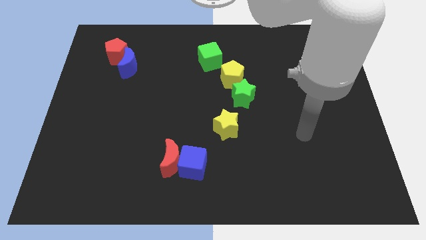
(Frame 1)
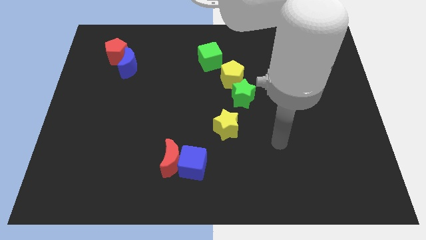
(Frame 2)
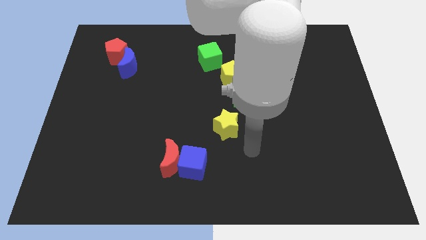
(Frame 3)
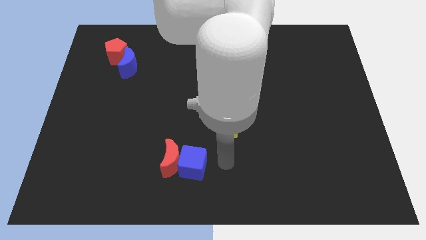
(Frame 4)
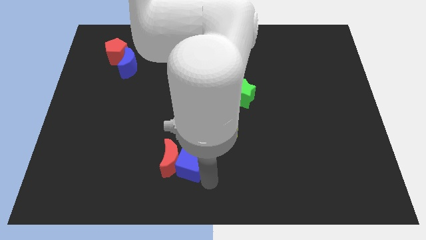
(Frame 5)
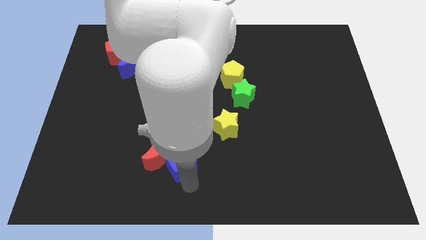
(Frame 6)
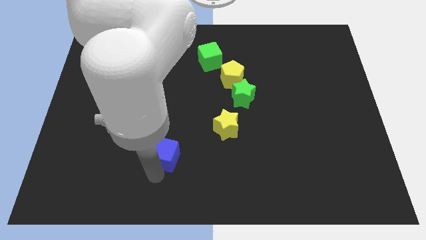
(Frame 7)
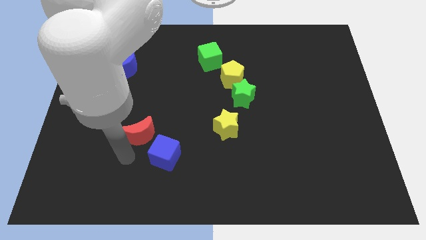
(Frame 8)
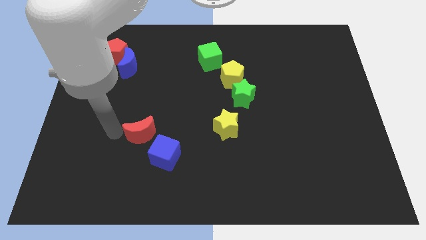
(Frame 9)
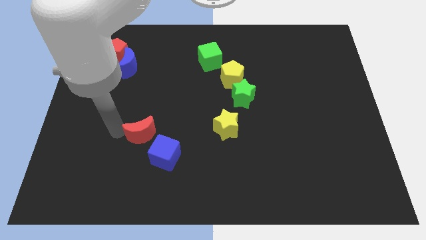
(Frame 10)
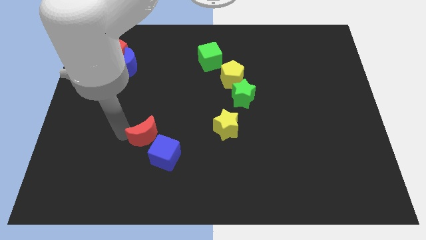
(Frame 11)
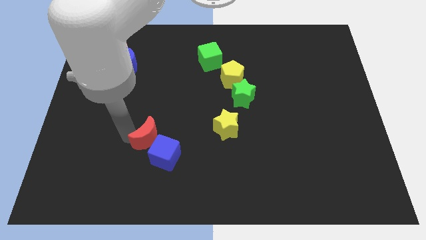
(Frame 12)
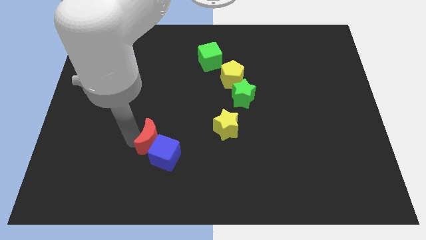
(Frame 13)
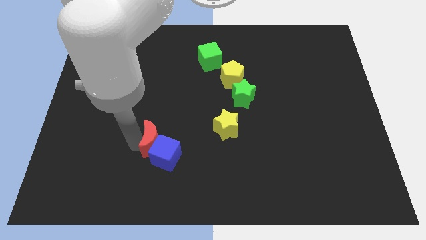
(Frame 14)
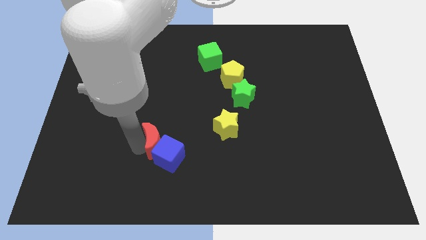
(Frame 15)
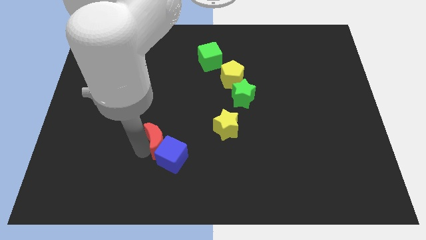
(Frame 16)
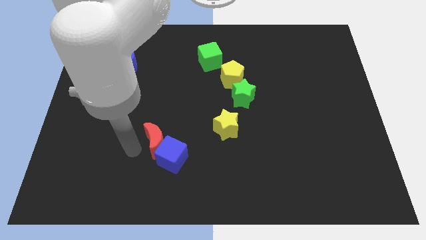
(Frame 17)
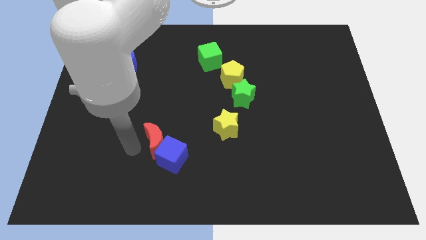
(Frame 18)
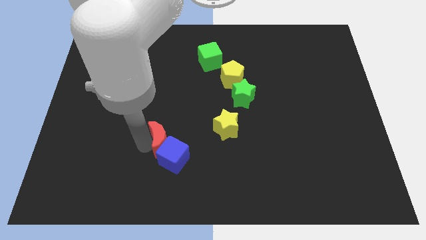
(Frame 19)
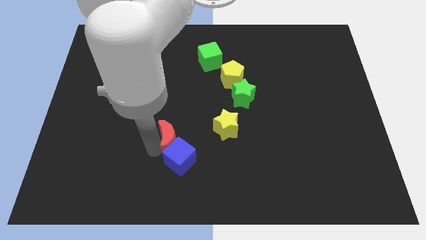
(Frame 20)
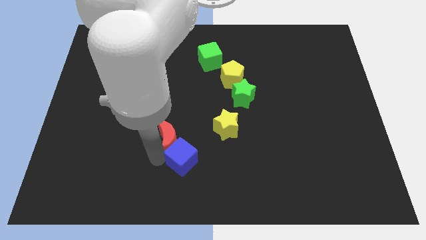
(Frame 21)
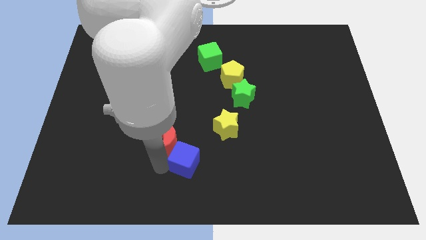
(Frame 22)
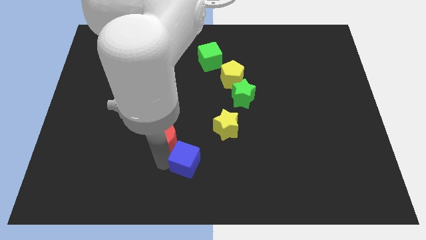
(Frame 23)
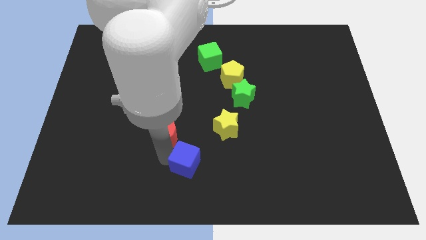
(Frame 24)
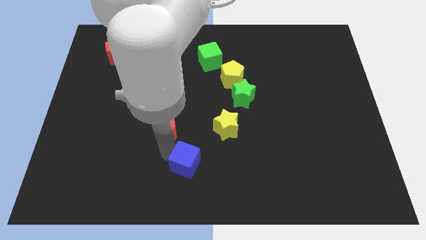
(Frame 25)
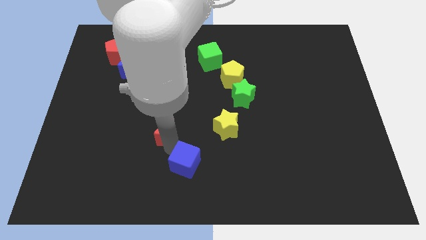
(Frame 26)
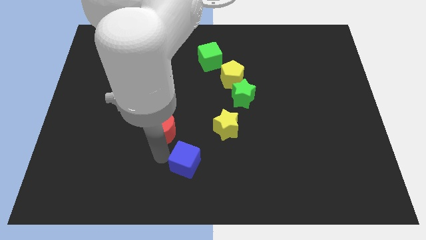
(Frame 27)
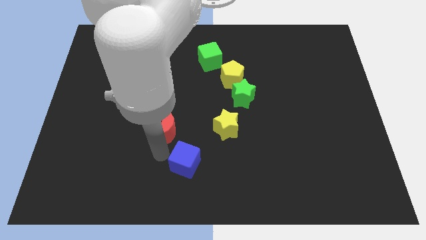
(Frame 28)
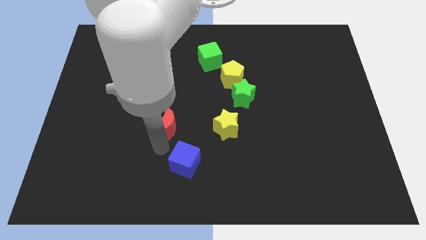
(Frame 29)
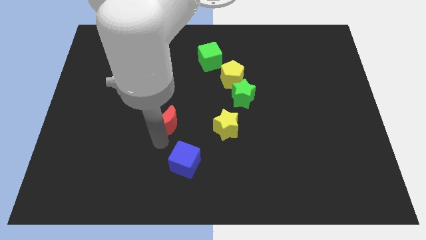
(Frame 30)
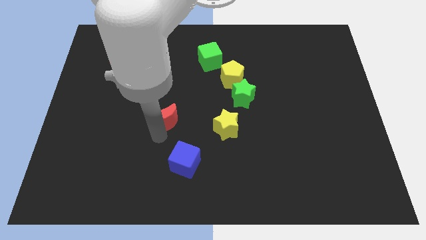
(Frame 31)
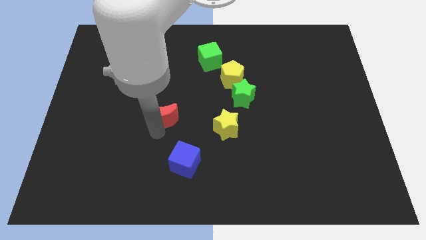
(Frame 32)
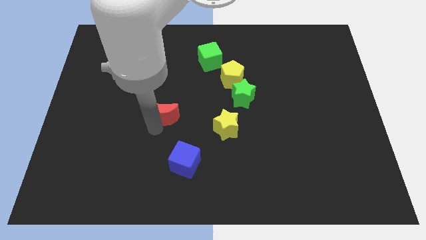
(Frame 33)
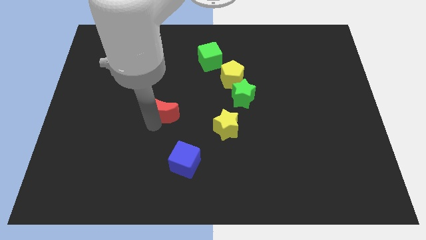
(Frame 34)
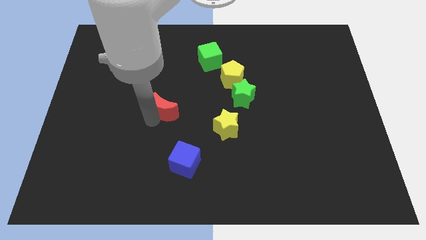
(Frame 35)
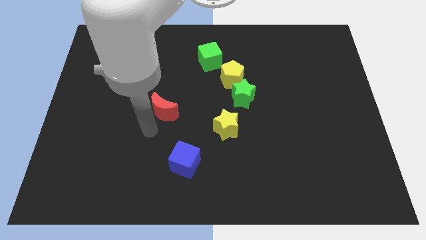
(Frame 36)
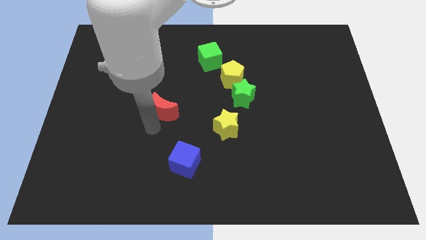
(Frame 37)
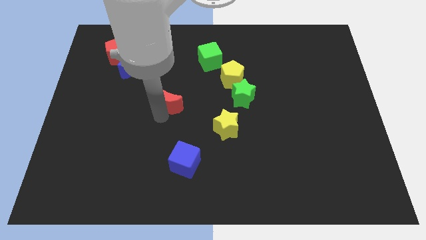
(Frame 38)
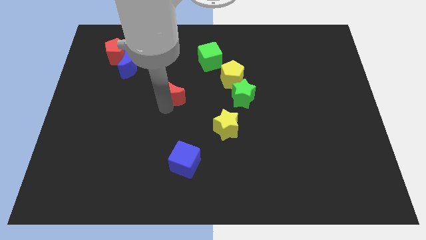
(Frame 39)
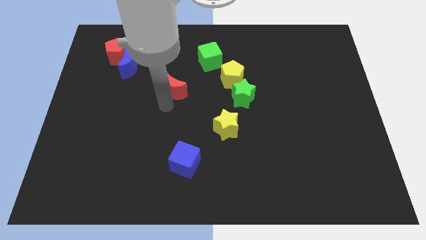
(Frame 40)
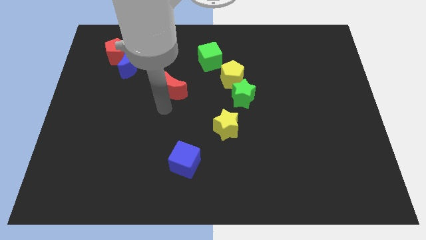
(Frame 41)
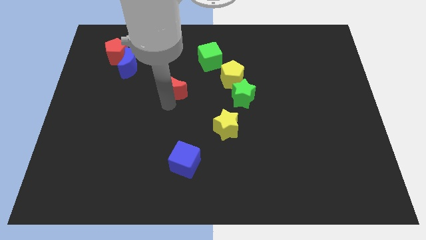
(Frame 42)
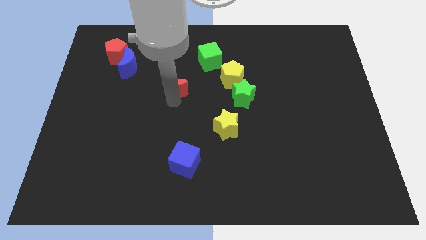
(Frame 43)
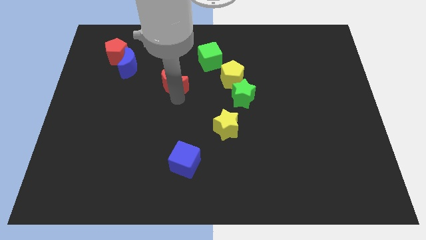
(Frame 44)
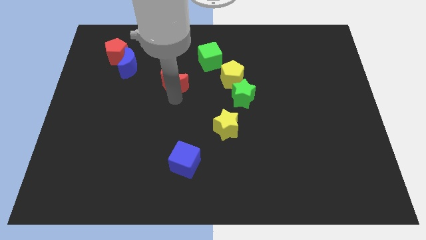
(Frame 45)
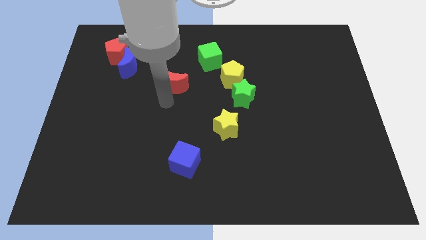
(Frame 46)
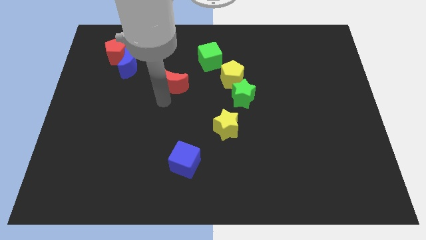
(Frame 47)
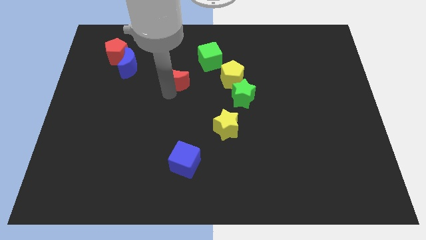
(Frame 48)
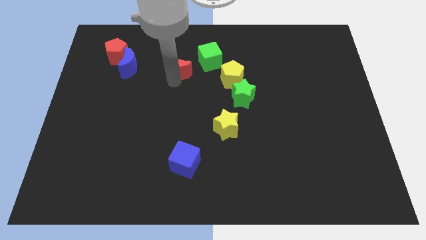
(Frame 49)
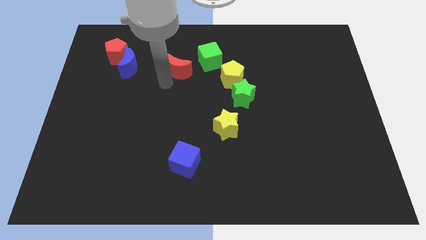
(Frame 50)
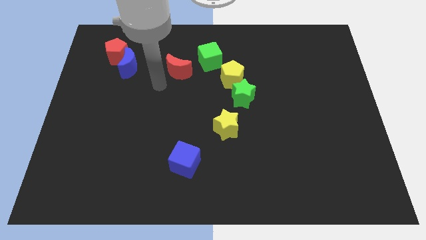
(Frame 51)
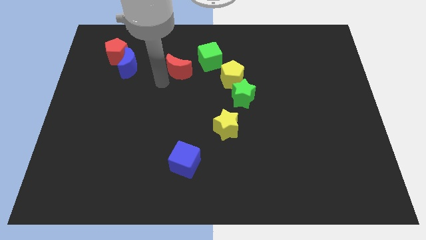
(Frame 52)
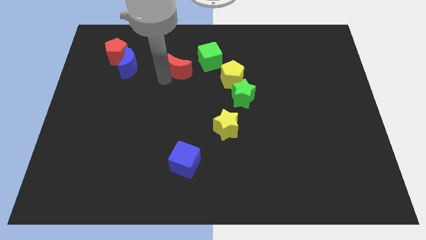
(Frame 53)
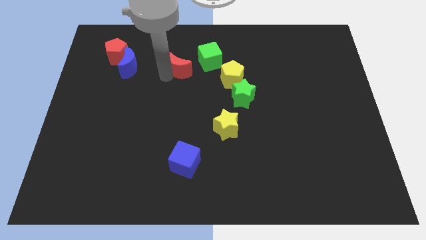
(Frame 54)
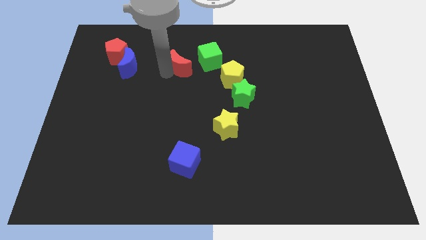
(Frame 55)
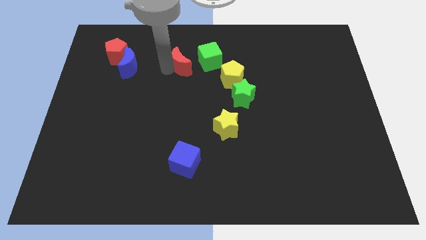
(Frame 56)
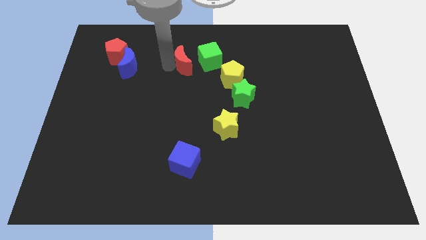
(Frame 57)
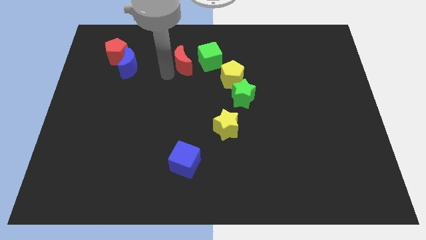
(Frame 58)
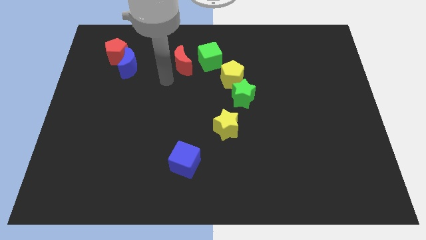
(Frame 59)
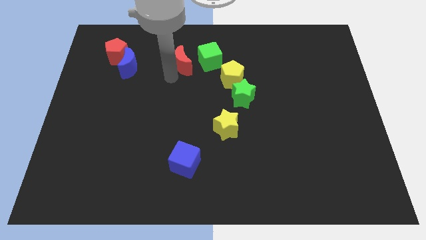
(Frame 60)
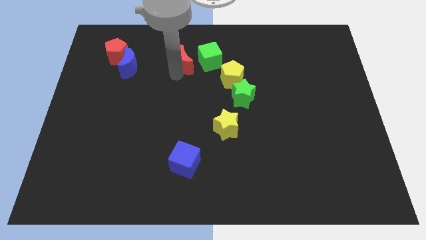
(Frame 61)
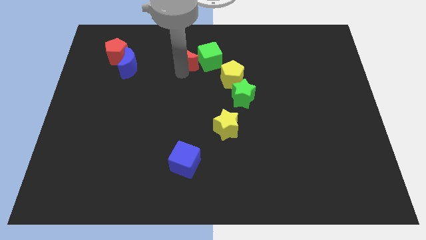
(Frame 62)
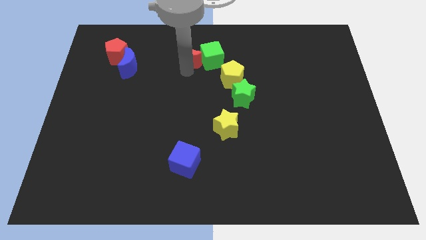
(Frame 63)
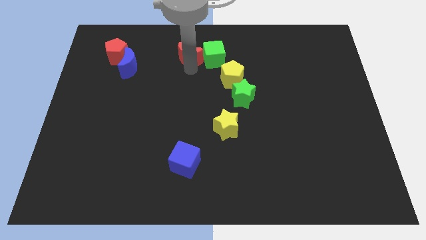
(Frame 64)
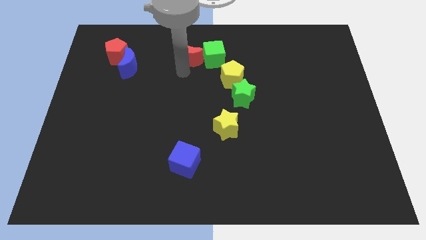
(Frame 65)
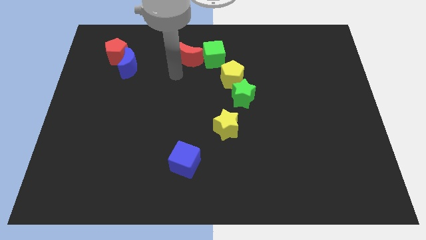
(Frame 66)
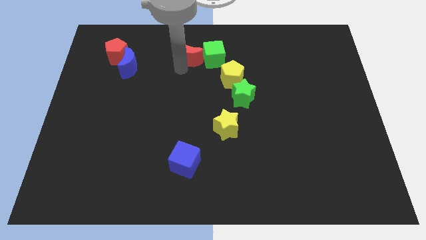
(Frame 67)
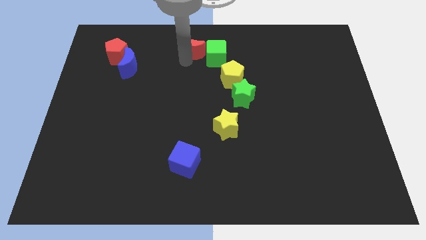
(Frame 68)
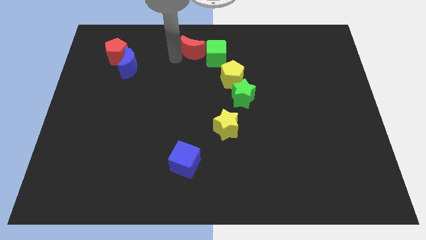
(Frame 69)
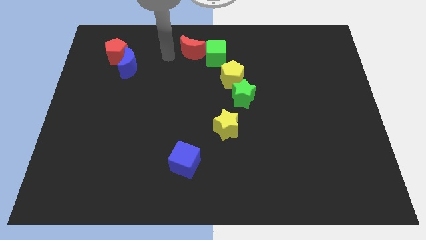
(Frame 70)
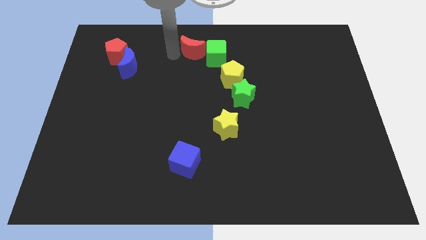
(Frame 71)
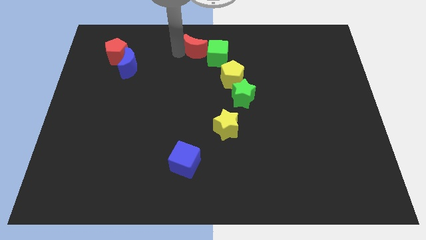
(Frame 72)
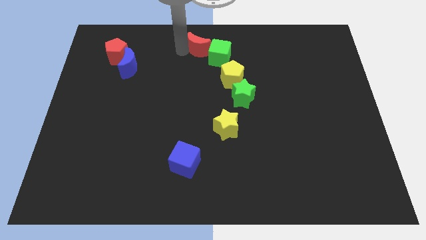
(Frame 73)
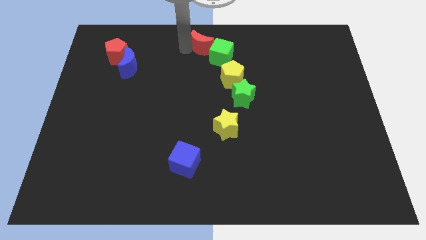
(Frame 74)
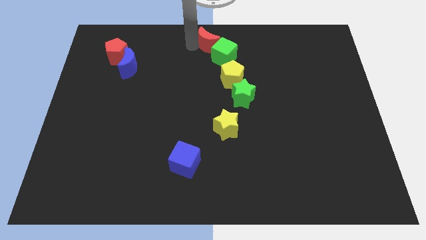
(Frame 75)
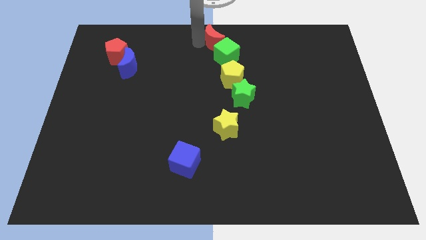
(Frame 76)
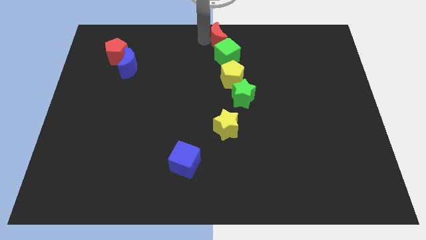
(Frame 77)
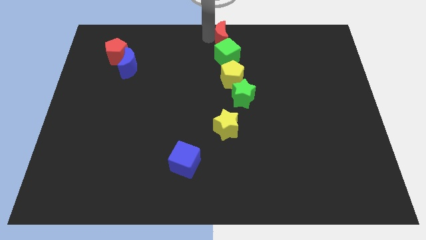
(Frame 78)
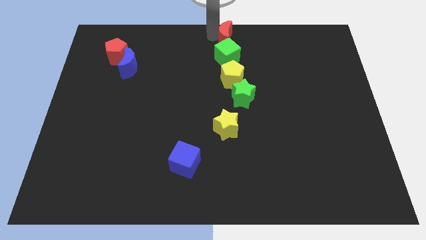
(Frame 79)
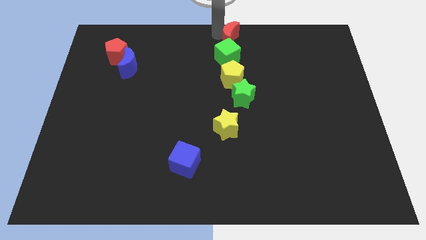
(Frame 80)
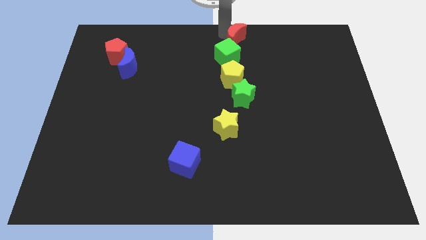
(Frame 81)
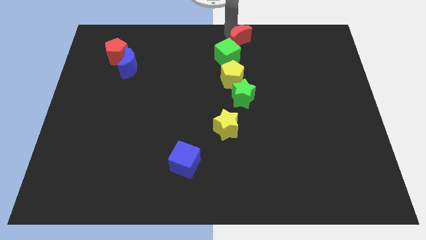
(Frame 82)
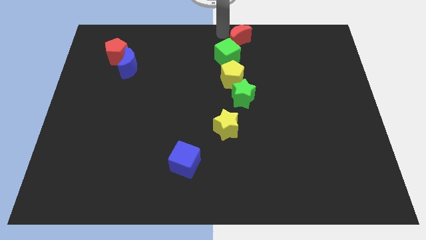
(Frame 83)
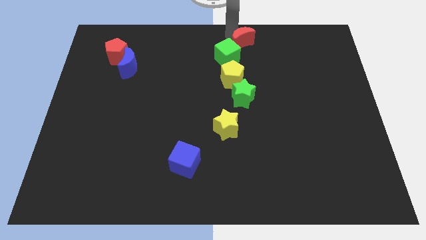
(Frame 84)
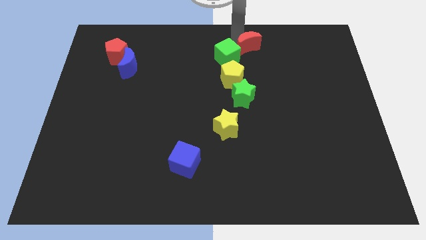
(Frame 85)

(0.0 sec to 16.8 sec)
slide the red moon right of the green cube
